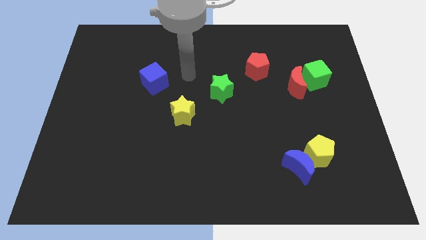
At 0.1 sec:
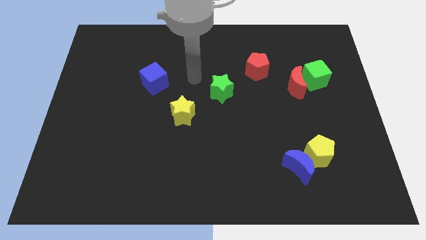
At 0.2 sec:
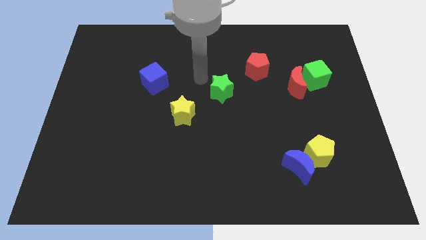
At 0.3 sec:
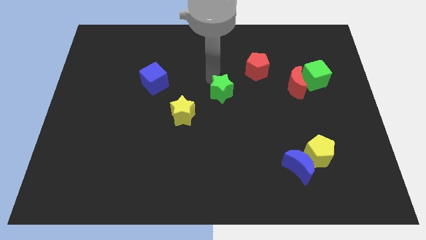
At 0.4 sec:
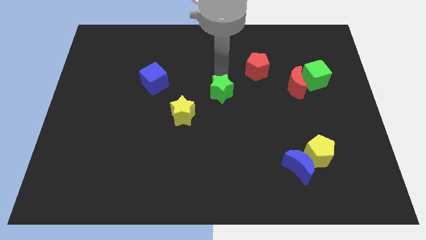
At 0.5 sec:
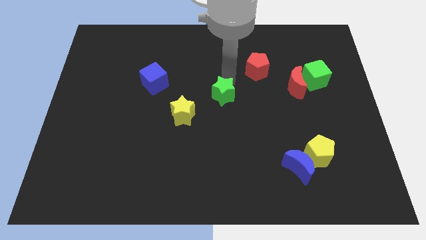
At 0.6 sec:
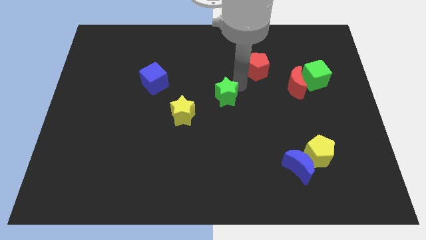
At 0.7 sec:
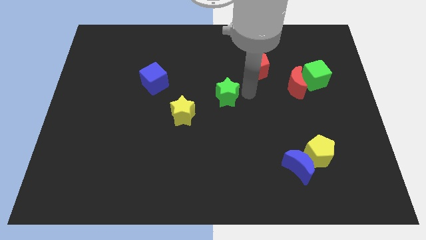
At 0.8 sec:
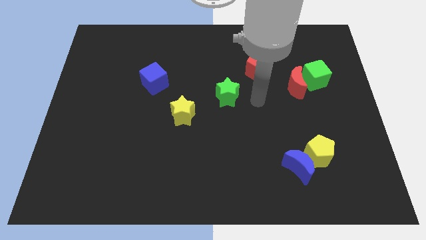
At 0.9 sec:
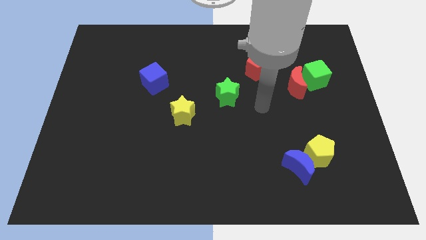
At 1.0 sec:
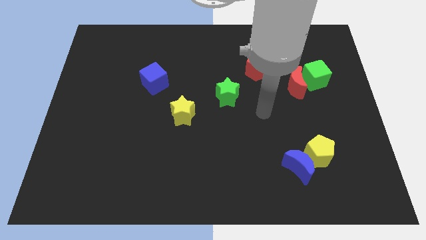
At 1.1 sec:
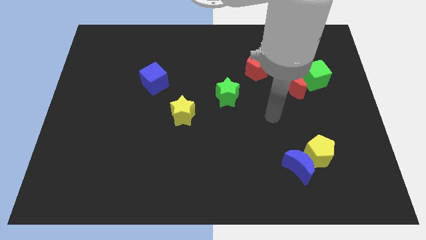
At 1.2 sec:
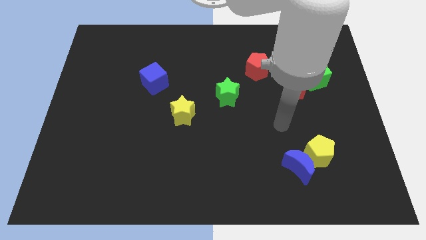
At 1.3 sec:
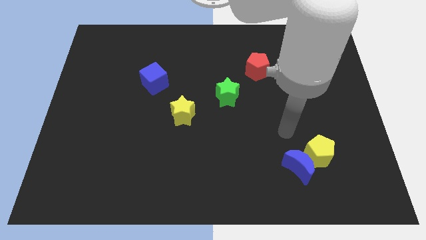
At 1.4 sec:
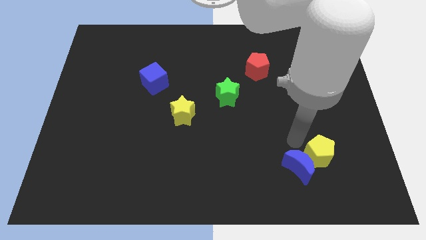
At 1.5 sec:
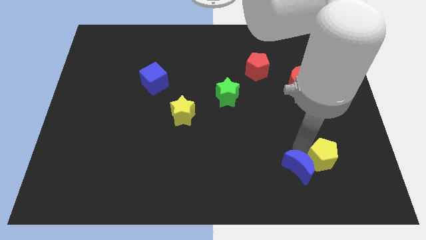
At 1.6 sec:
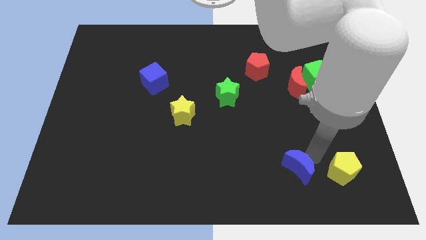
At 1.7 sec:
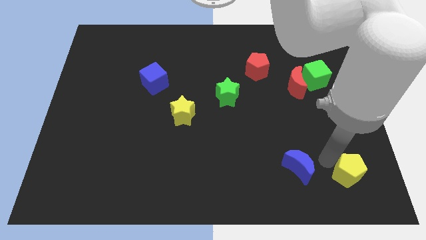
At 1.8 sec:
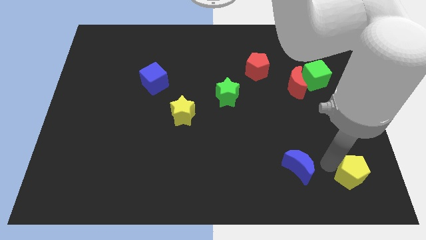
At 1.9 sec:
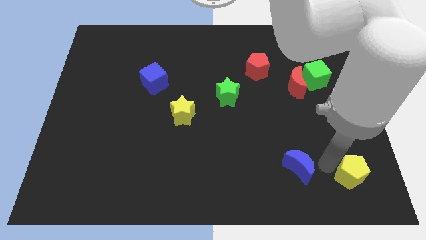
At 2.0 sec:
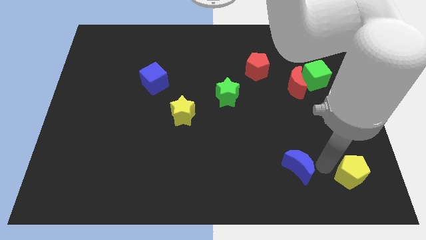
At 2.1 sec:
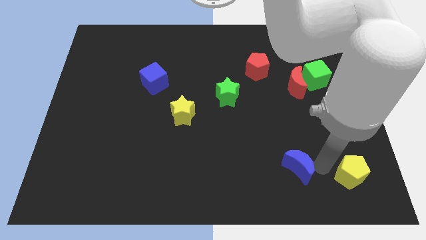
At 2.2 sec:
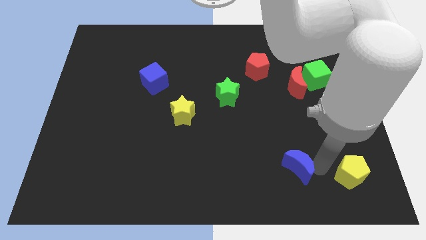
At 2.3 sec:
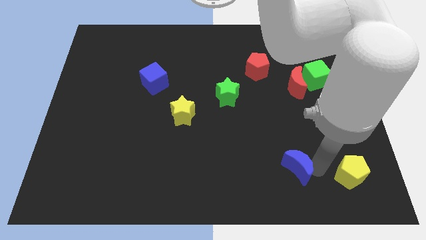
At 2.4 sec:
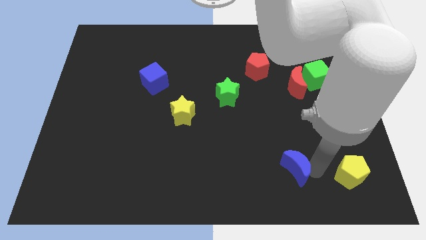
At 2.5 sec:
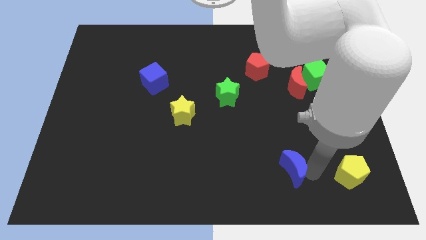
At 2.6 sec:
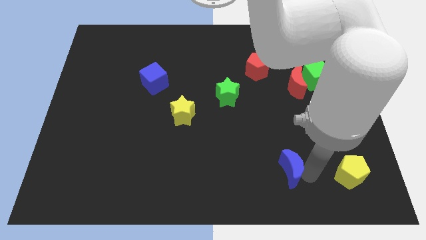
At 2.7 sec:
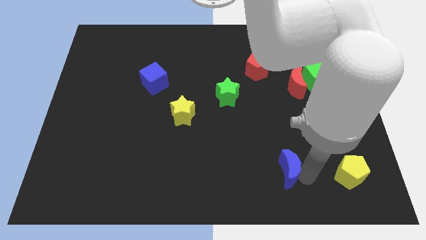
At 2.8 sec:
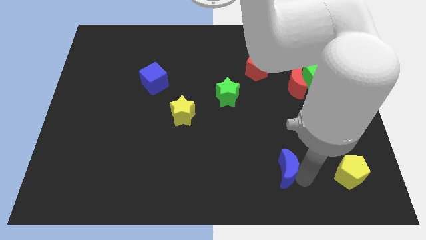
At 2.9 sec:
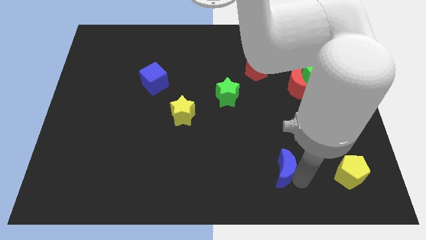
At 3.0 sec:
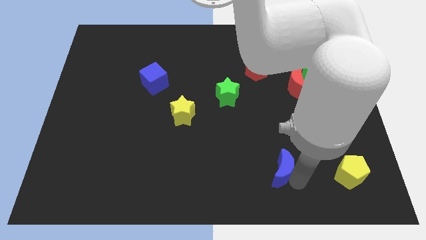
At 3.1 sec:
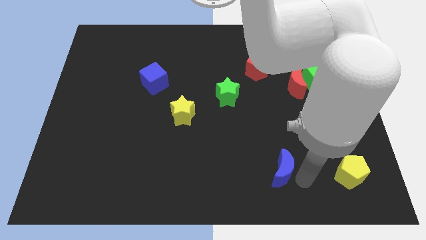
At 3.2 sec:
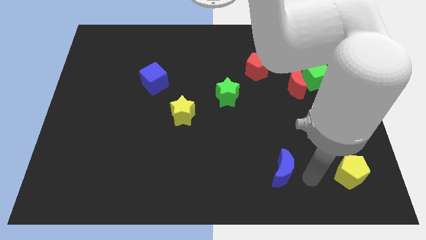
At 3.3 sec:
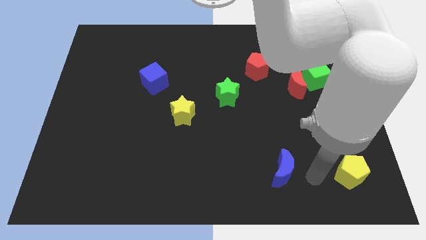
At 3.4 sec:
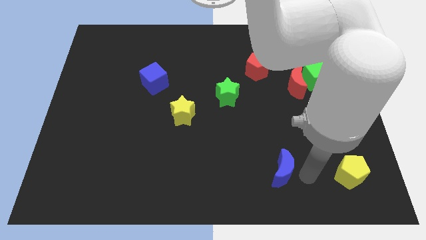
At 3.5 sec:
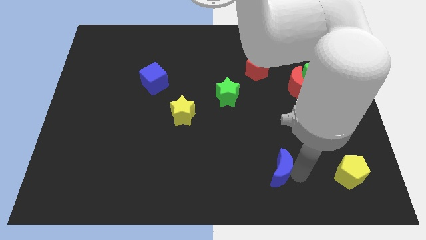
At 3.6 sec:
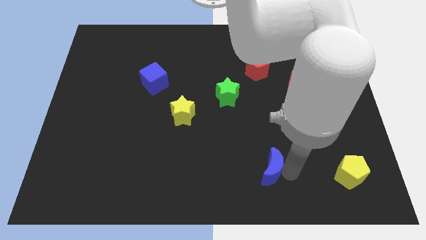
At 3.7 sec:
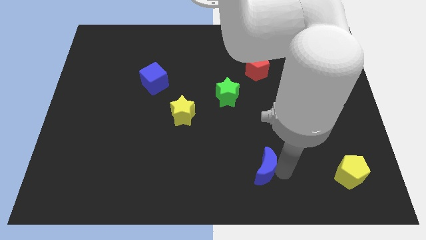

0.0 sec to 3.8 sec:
slide the blue moon a bit left

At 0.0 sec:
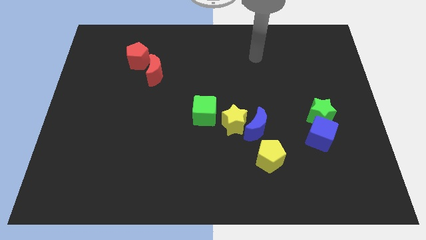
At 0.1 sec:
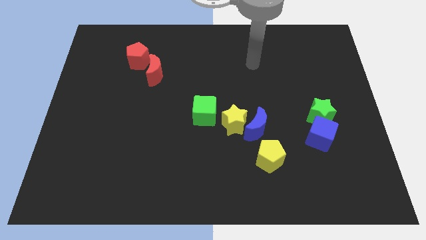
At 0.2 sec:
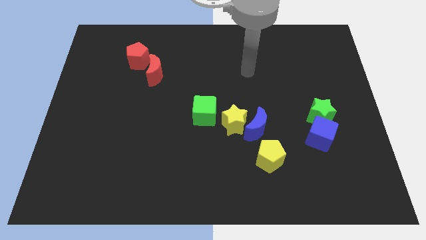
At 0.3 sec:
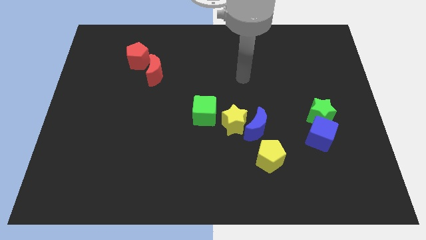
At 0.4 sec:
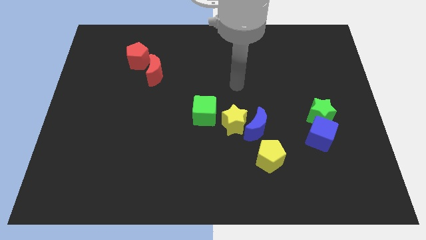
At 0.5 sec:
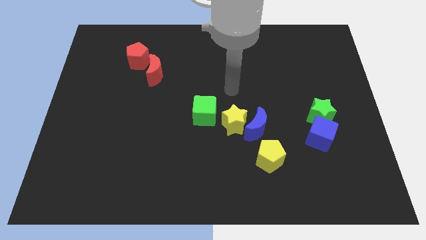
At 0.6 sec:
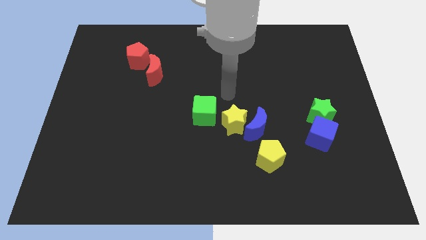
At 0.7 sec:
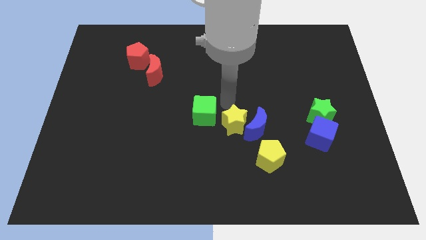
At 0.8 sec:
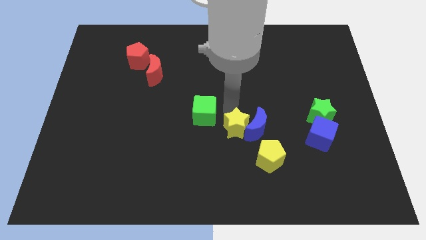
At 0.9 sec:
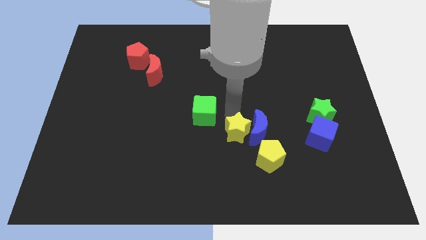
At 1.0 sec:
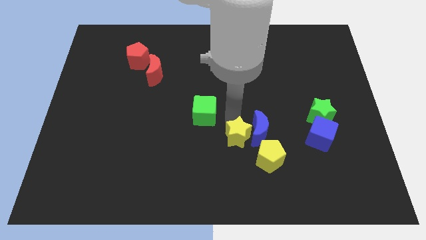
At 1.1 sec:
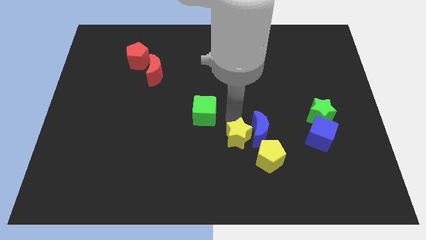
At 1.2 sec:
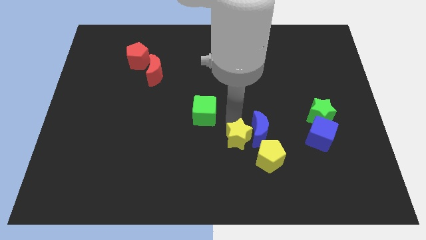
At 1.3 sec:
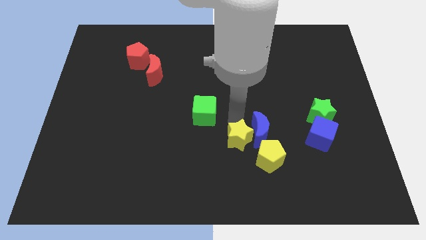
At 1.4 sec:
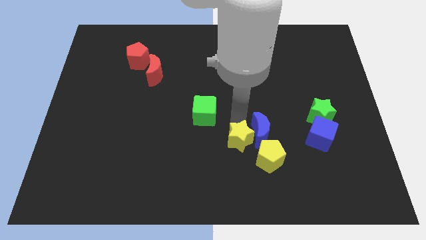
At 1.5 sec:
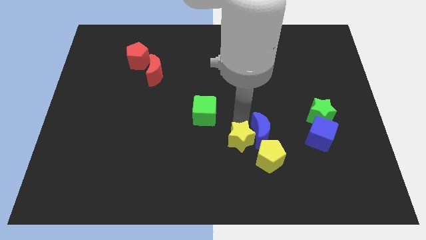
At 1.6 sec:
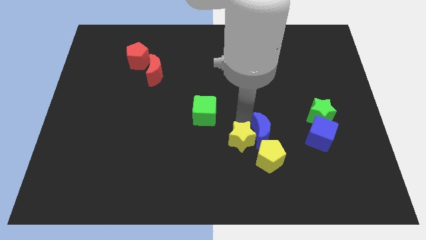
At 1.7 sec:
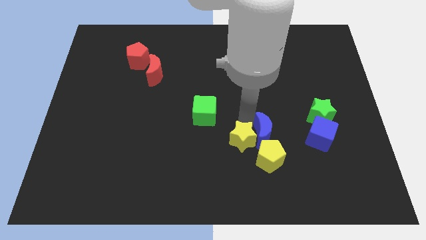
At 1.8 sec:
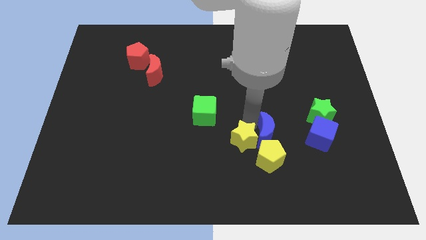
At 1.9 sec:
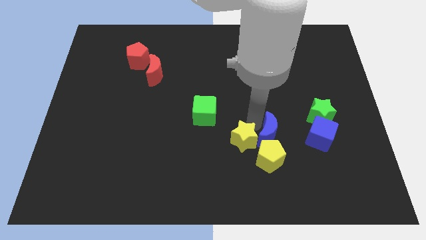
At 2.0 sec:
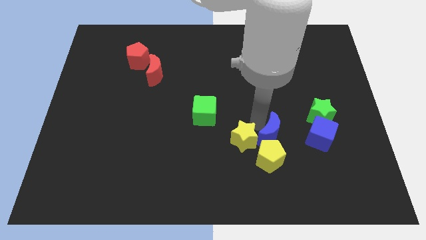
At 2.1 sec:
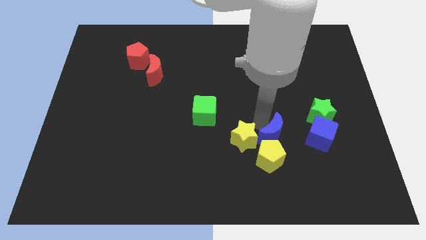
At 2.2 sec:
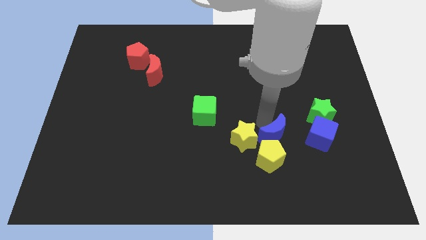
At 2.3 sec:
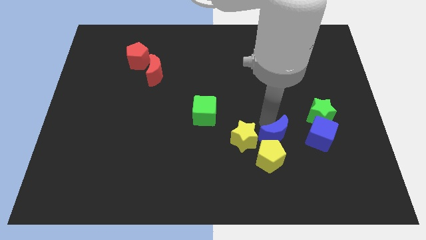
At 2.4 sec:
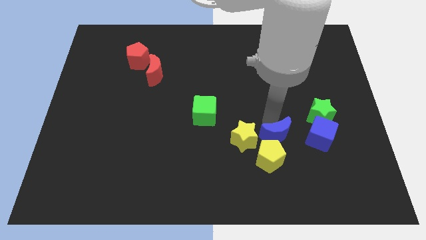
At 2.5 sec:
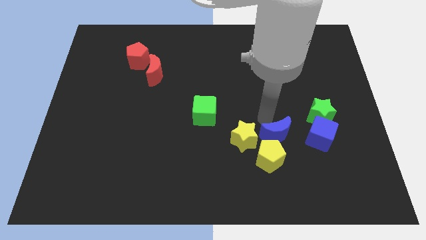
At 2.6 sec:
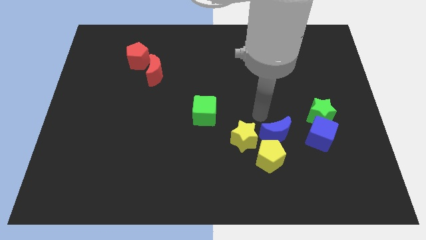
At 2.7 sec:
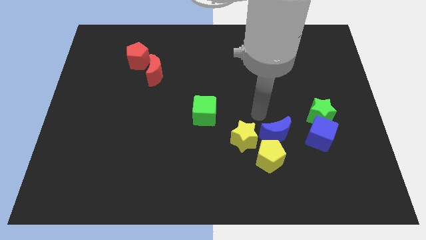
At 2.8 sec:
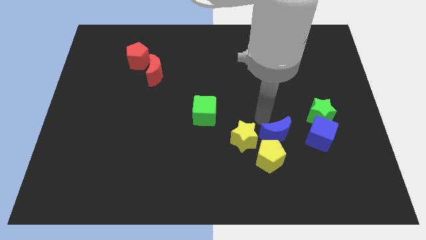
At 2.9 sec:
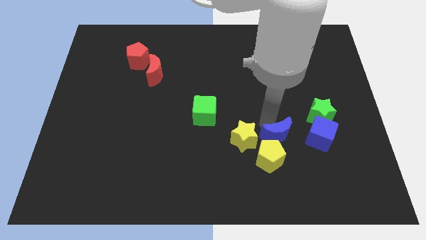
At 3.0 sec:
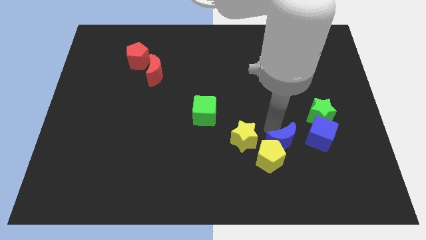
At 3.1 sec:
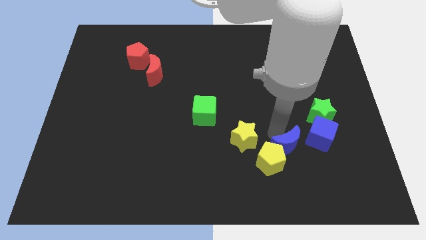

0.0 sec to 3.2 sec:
push the blue moon a little bit down and to the right diagonally

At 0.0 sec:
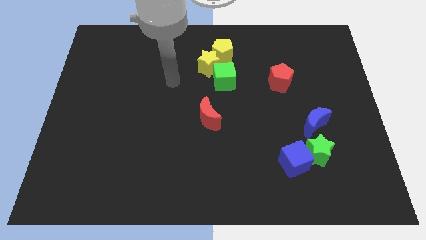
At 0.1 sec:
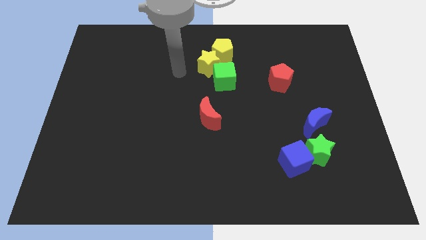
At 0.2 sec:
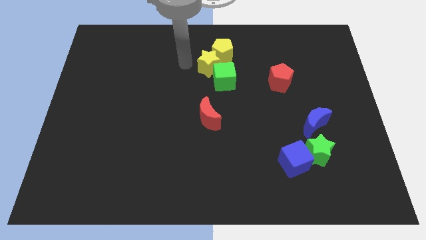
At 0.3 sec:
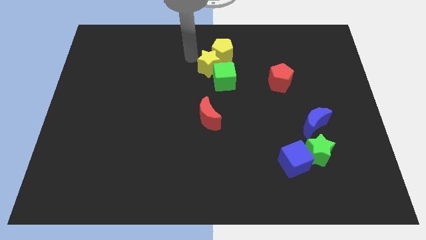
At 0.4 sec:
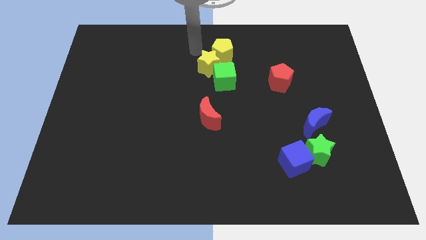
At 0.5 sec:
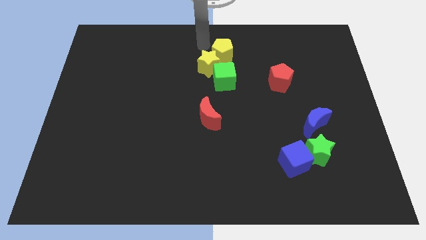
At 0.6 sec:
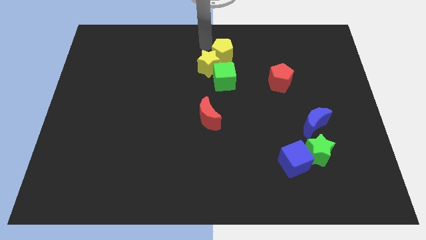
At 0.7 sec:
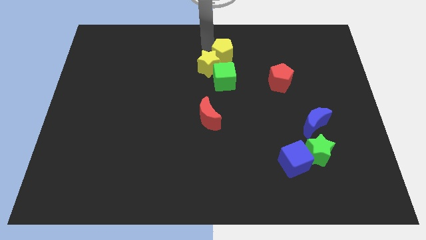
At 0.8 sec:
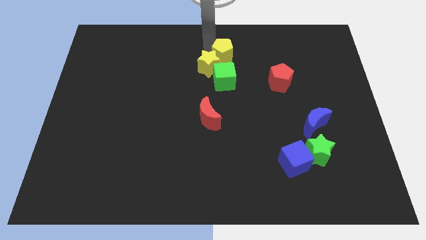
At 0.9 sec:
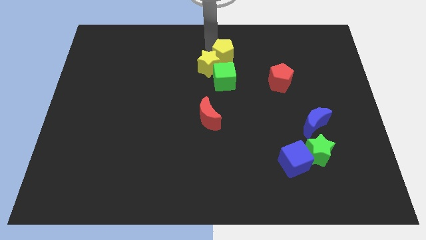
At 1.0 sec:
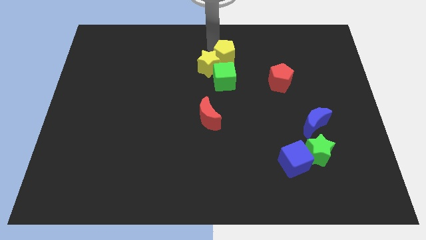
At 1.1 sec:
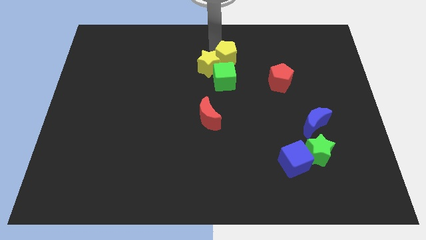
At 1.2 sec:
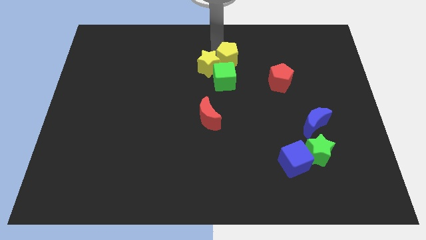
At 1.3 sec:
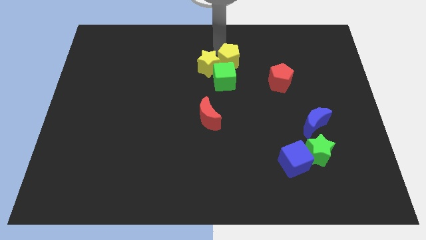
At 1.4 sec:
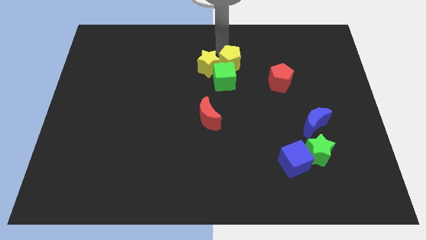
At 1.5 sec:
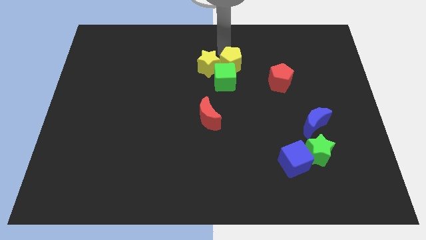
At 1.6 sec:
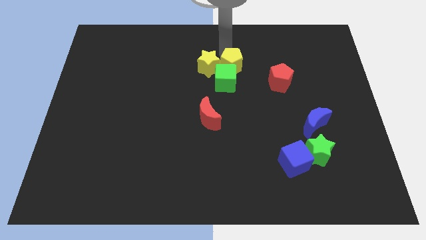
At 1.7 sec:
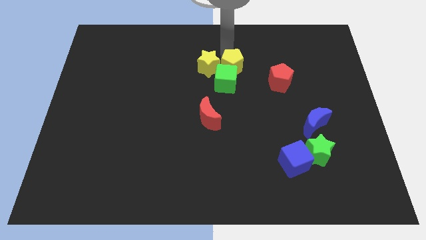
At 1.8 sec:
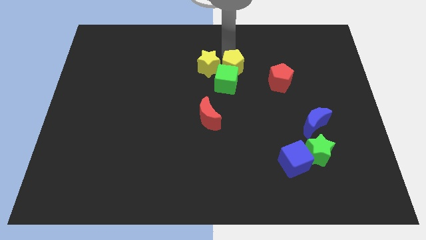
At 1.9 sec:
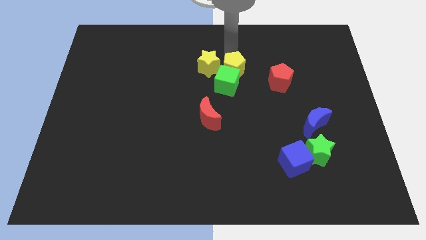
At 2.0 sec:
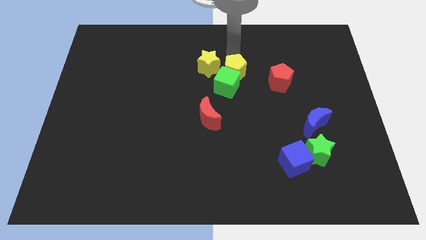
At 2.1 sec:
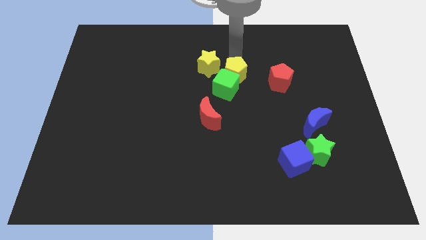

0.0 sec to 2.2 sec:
move the yellow pentagon a little bit downwards and then right
